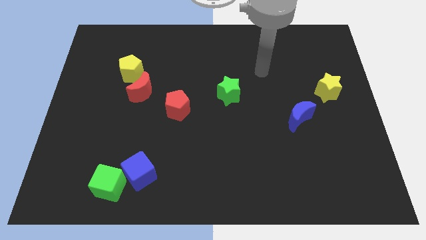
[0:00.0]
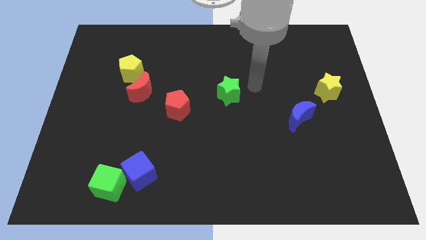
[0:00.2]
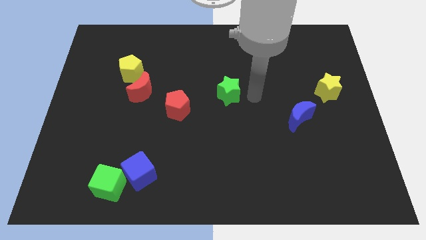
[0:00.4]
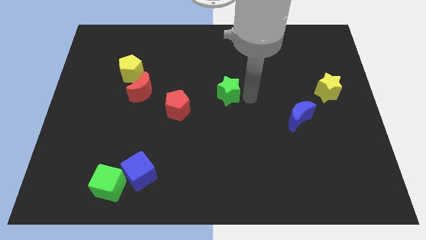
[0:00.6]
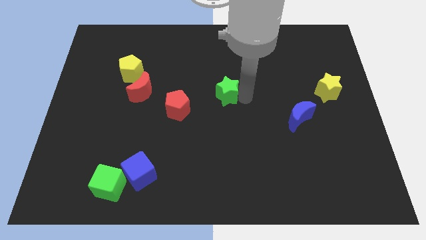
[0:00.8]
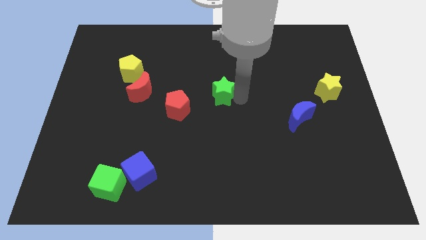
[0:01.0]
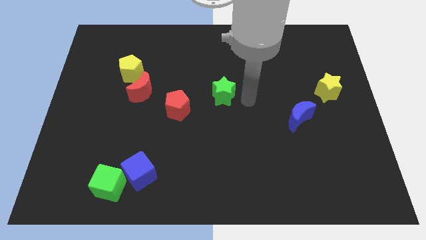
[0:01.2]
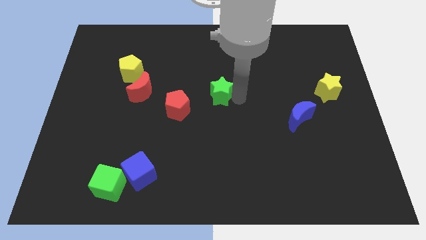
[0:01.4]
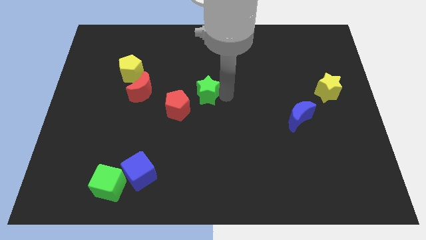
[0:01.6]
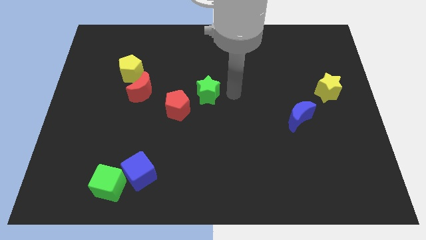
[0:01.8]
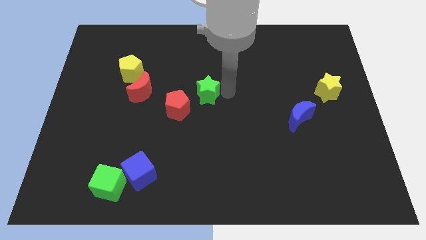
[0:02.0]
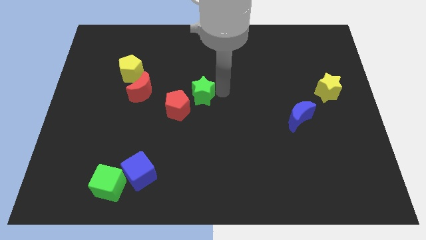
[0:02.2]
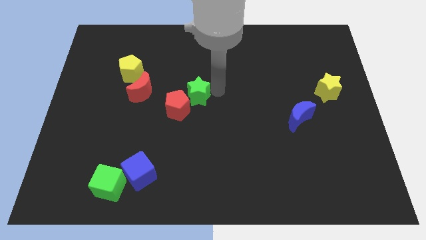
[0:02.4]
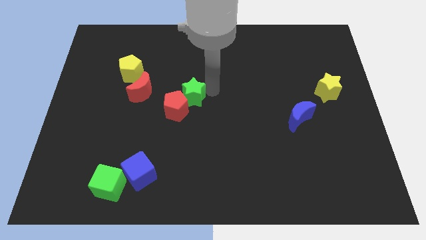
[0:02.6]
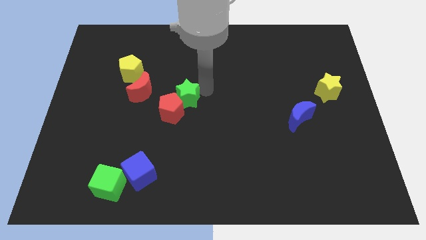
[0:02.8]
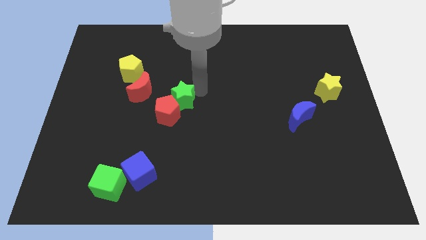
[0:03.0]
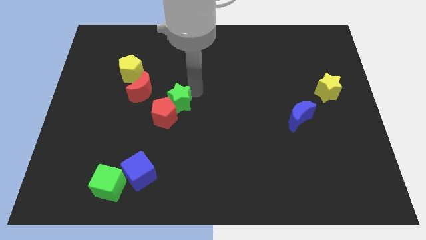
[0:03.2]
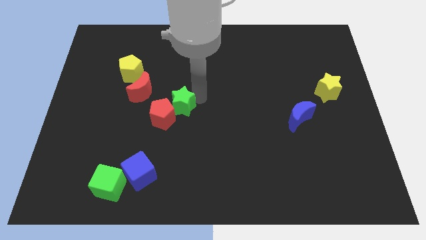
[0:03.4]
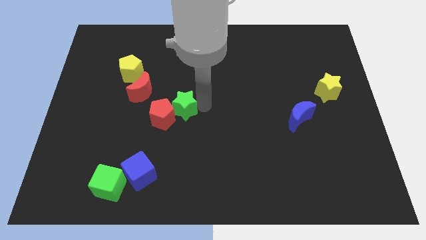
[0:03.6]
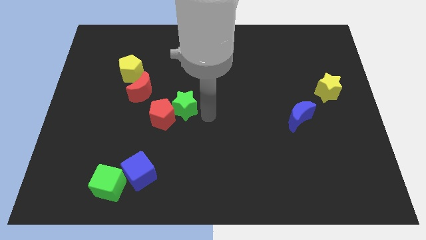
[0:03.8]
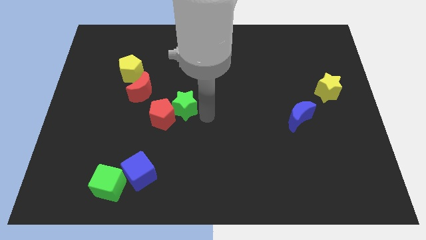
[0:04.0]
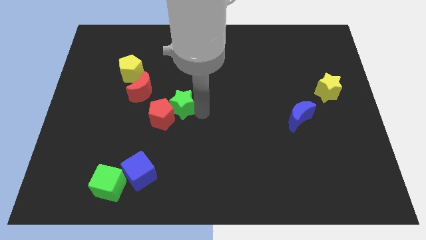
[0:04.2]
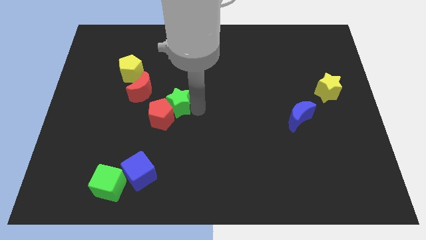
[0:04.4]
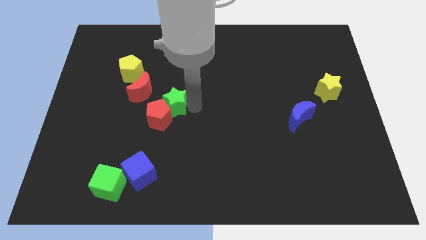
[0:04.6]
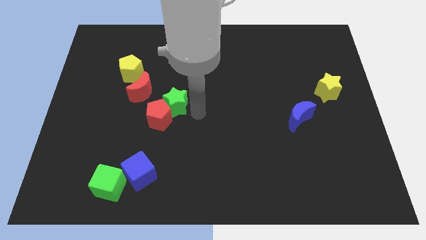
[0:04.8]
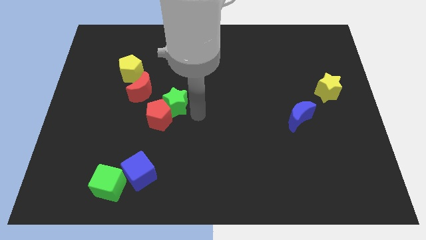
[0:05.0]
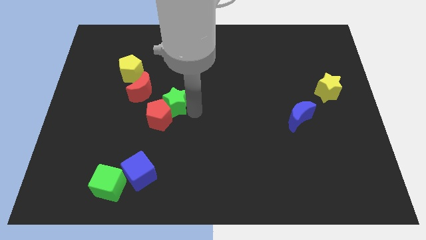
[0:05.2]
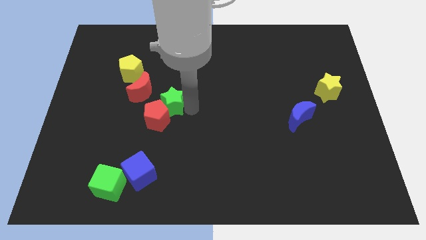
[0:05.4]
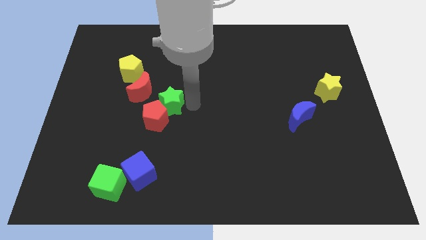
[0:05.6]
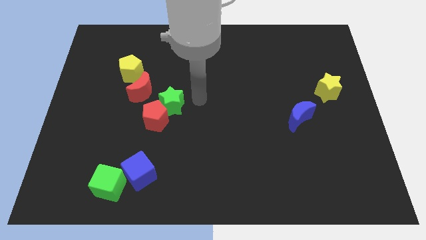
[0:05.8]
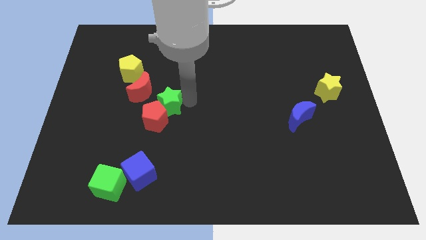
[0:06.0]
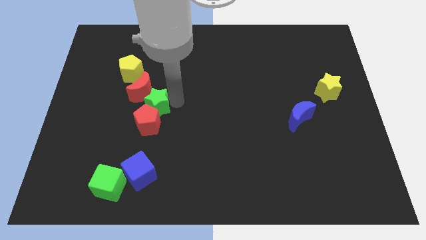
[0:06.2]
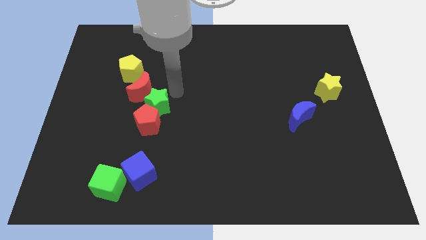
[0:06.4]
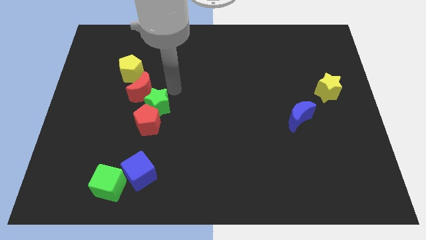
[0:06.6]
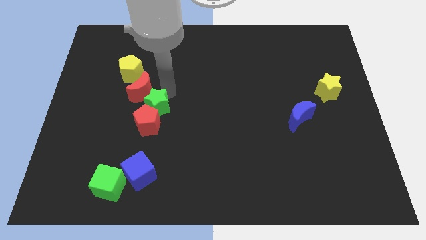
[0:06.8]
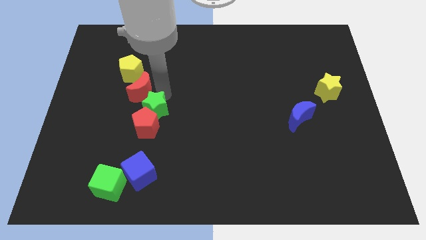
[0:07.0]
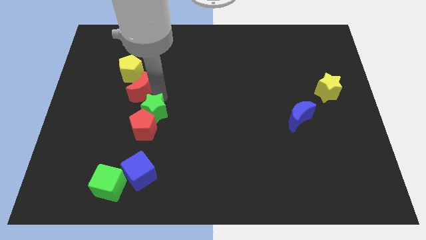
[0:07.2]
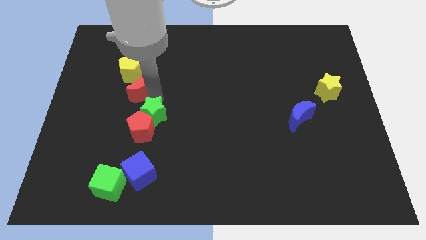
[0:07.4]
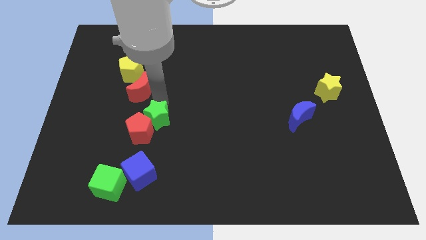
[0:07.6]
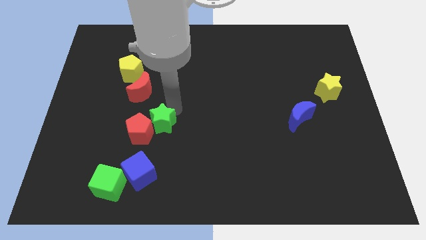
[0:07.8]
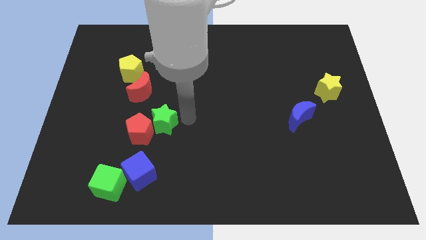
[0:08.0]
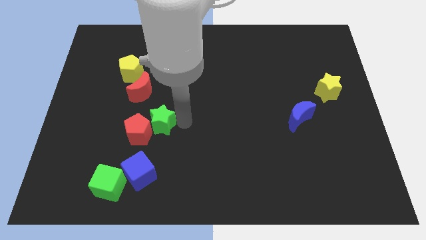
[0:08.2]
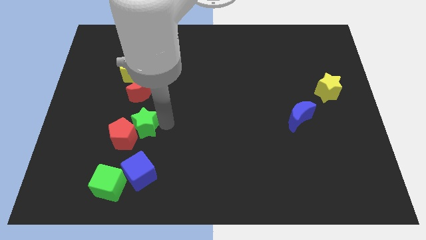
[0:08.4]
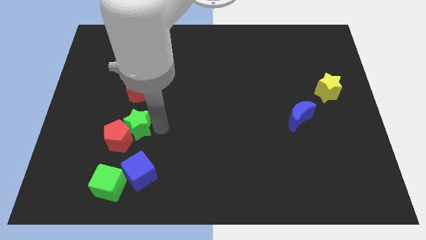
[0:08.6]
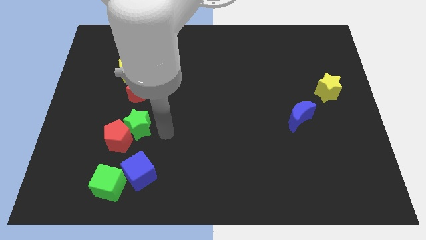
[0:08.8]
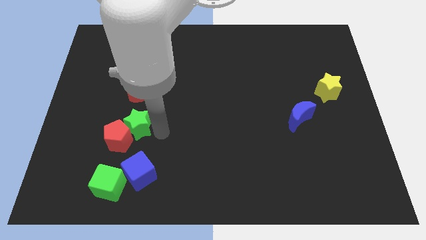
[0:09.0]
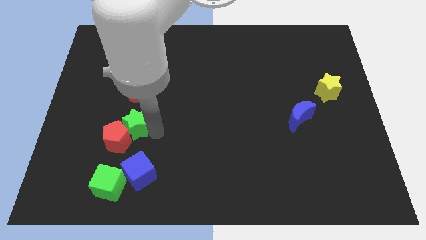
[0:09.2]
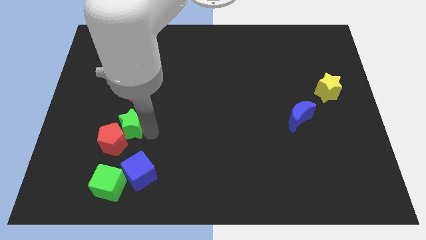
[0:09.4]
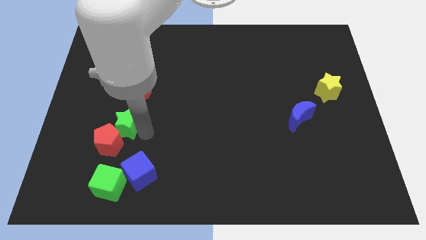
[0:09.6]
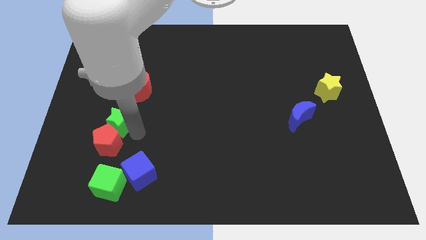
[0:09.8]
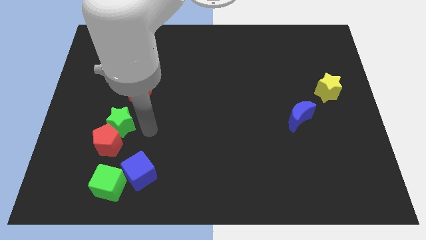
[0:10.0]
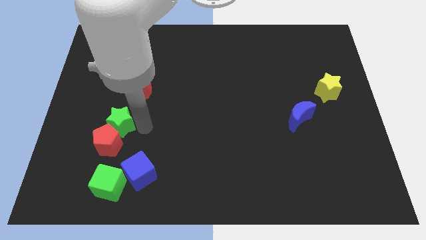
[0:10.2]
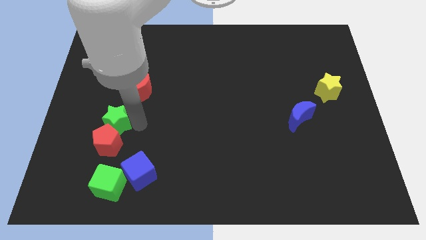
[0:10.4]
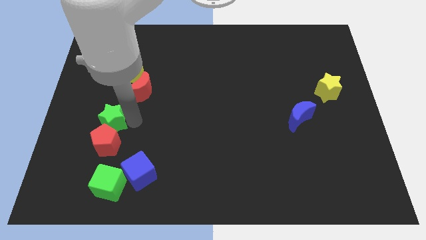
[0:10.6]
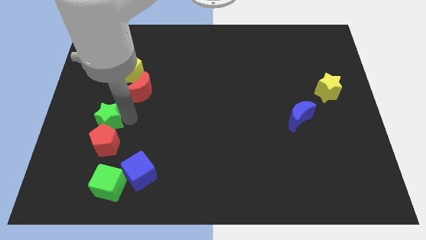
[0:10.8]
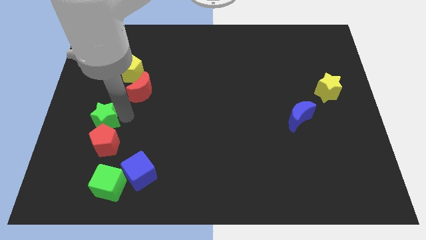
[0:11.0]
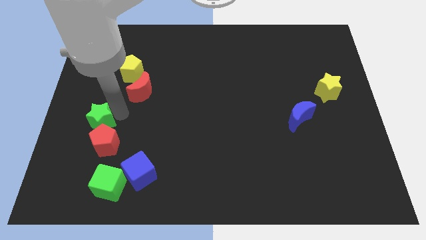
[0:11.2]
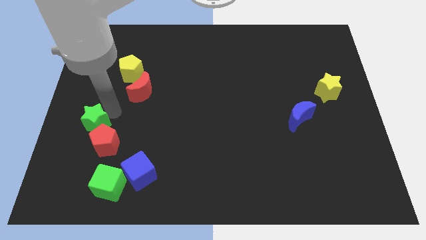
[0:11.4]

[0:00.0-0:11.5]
move the green star to the center left

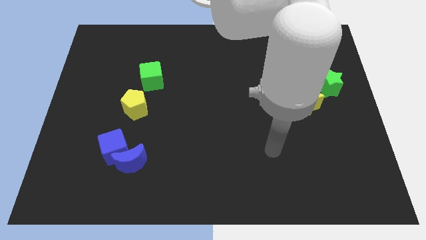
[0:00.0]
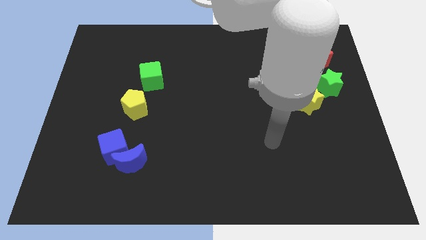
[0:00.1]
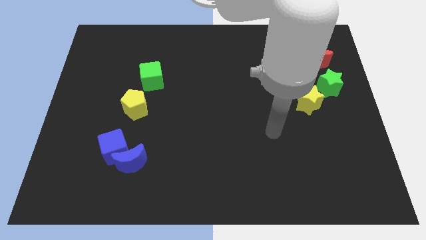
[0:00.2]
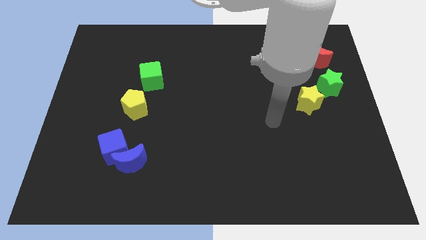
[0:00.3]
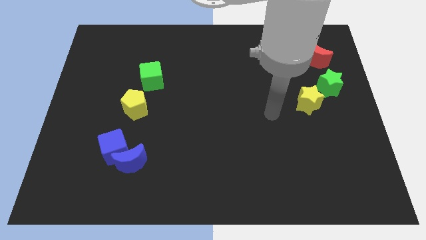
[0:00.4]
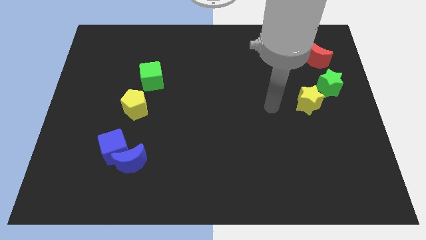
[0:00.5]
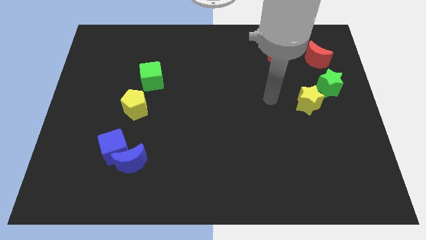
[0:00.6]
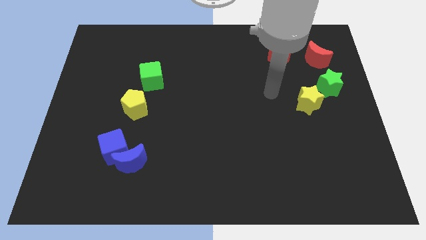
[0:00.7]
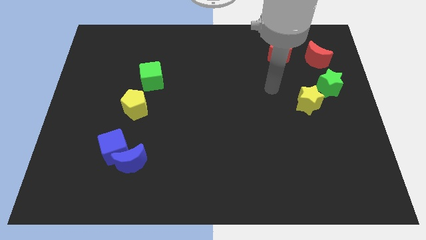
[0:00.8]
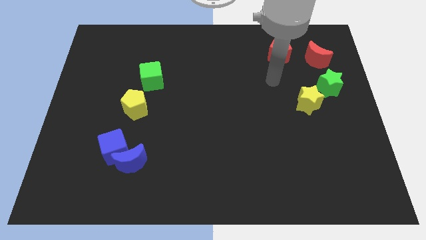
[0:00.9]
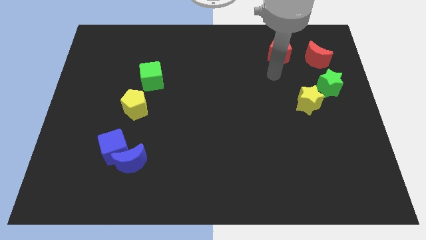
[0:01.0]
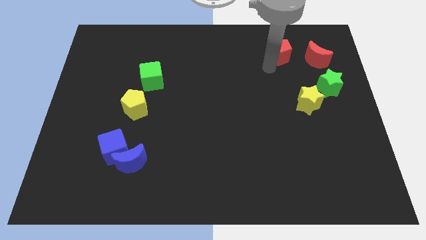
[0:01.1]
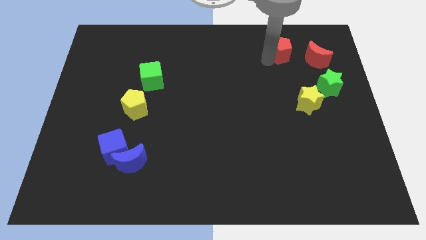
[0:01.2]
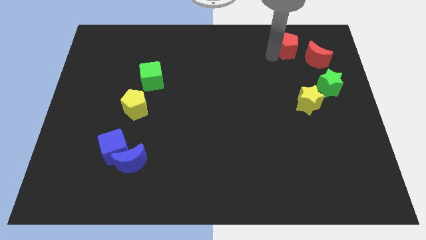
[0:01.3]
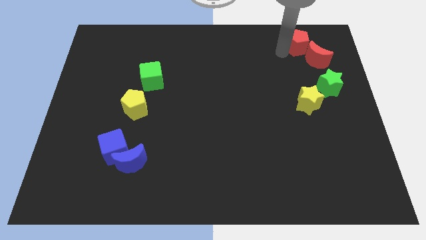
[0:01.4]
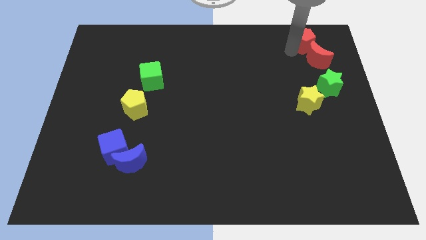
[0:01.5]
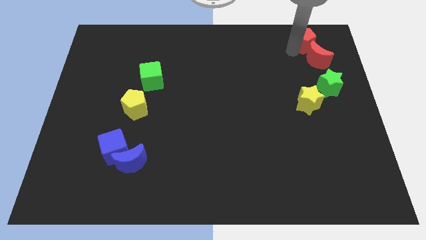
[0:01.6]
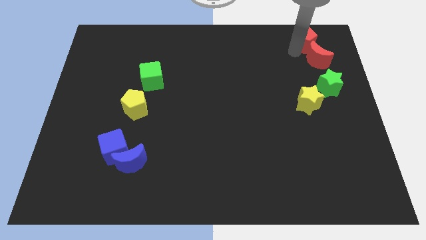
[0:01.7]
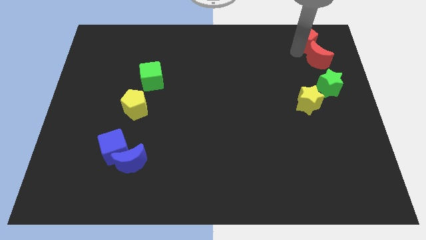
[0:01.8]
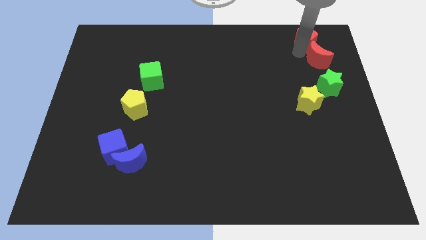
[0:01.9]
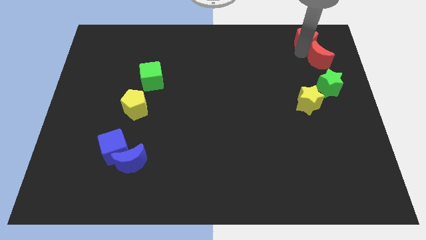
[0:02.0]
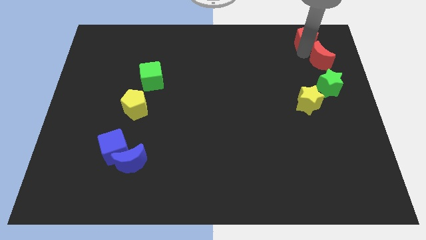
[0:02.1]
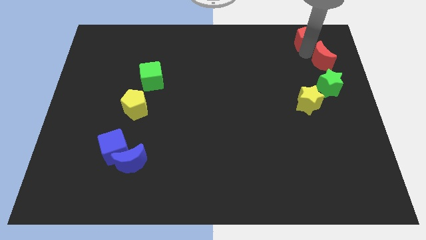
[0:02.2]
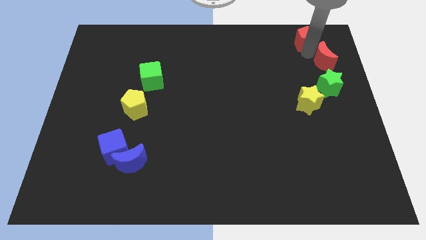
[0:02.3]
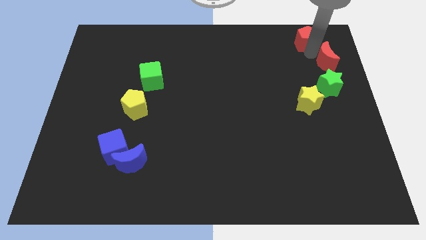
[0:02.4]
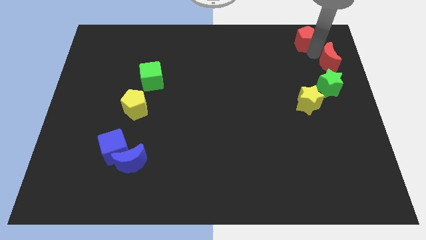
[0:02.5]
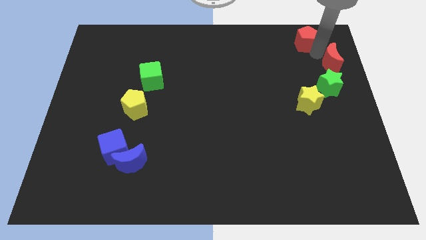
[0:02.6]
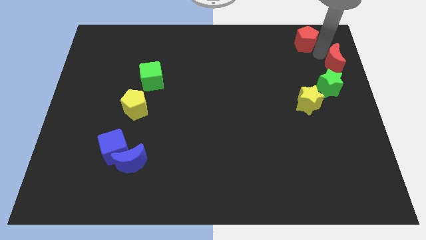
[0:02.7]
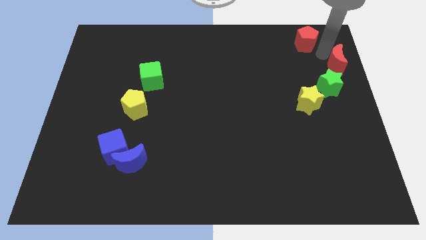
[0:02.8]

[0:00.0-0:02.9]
slide the red moon to the right side
